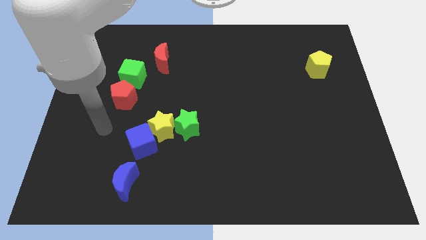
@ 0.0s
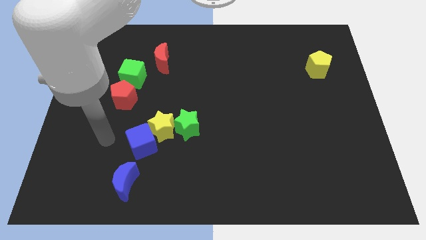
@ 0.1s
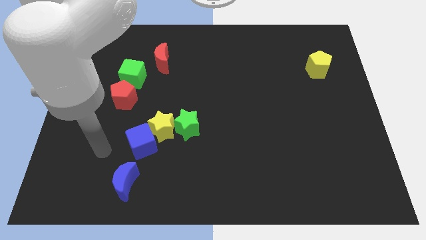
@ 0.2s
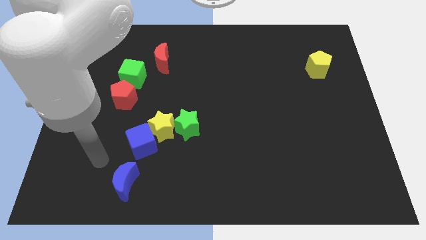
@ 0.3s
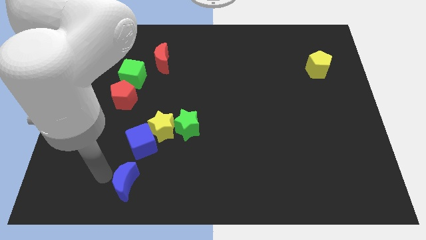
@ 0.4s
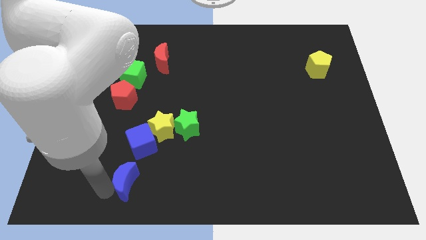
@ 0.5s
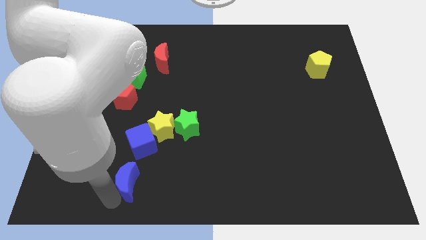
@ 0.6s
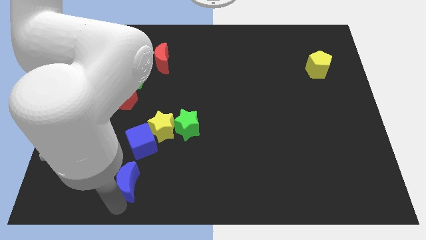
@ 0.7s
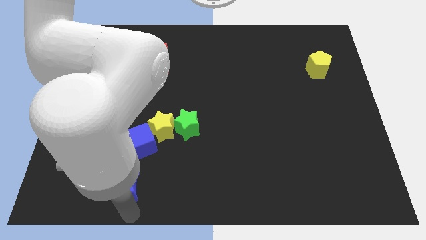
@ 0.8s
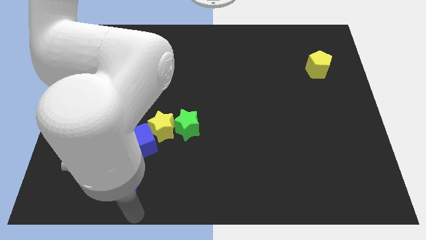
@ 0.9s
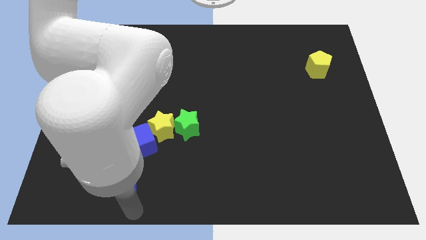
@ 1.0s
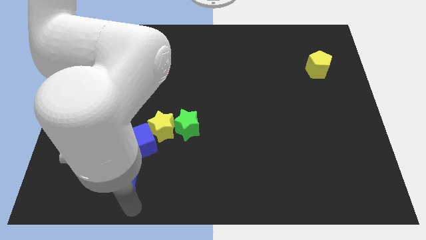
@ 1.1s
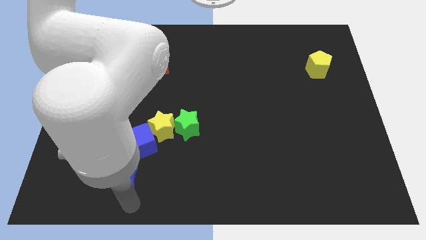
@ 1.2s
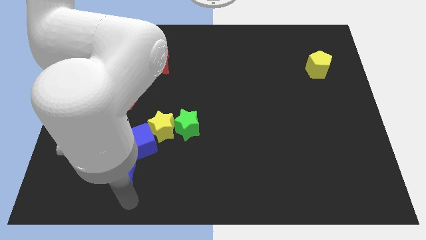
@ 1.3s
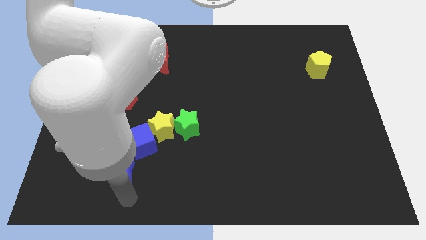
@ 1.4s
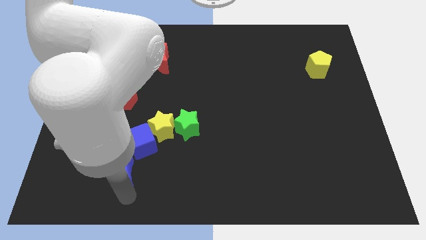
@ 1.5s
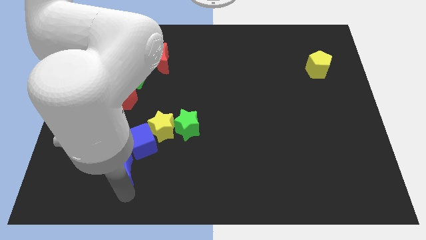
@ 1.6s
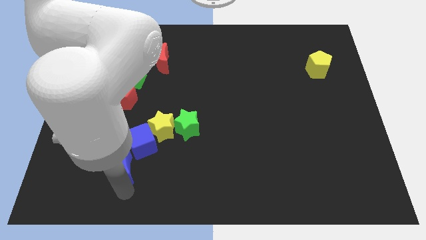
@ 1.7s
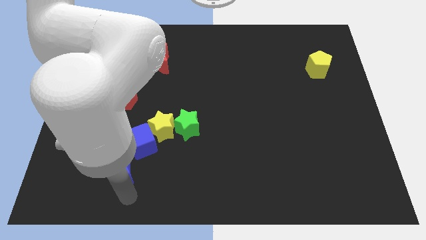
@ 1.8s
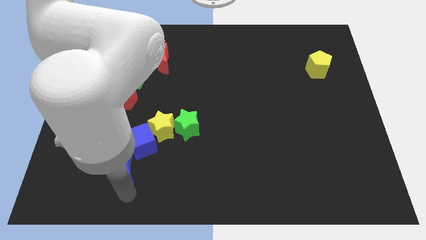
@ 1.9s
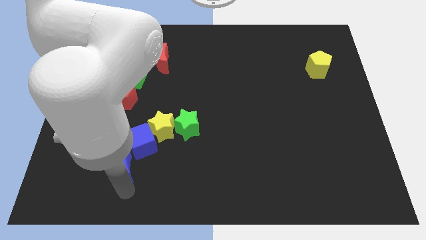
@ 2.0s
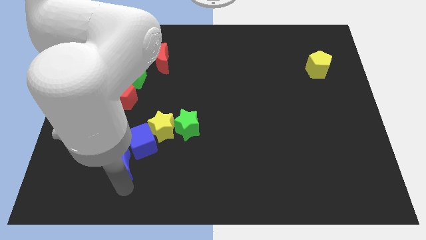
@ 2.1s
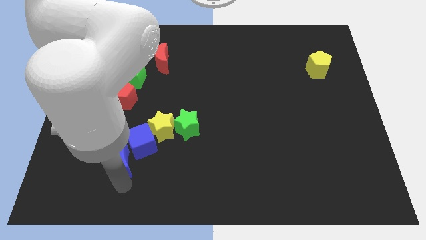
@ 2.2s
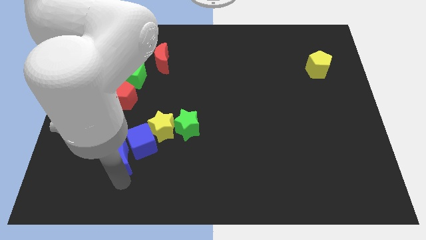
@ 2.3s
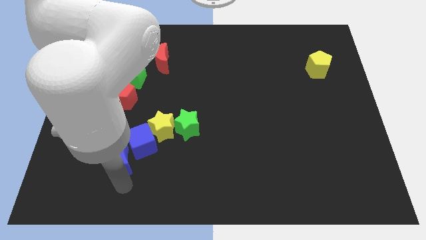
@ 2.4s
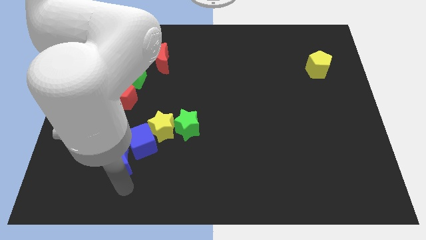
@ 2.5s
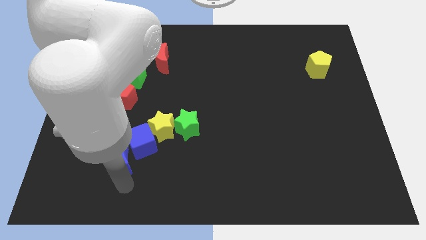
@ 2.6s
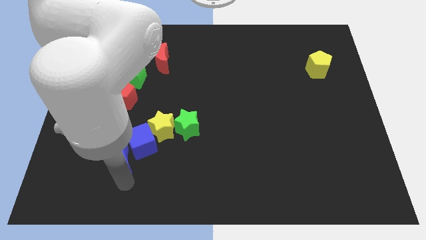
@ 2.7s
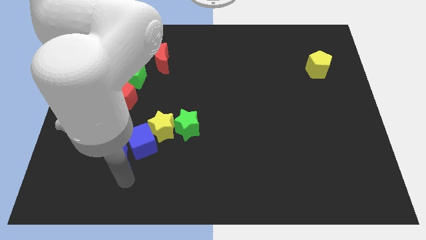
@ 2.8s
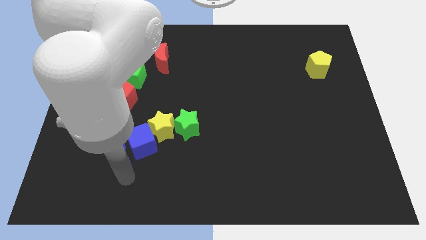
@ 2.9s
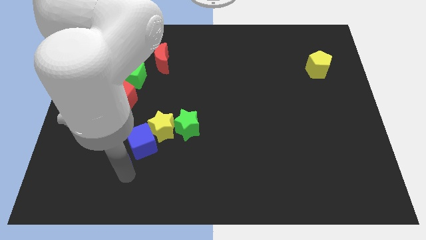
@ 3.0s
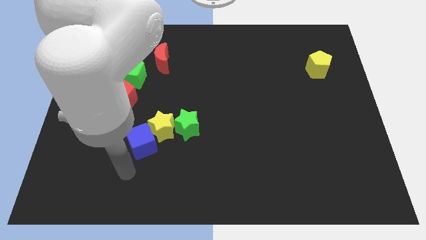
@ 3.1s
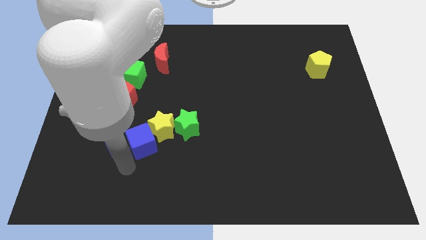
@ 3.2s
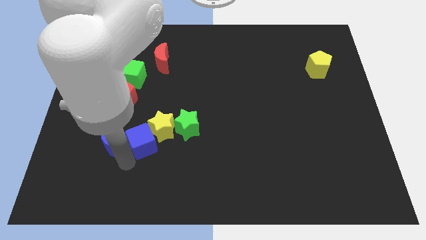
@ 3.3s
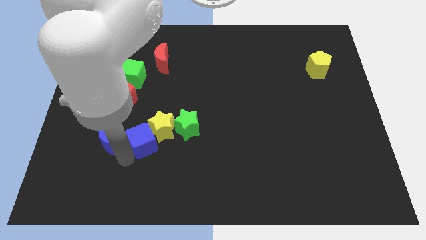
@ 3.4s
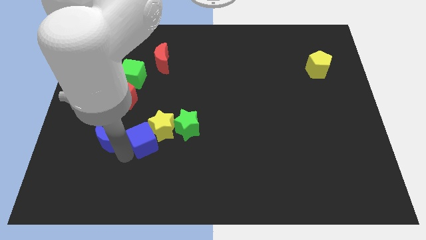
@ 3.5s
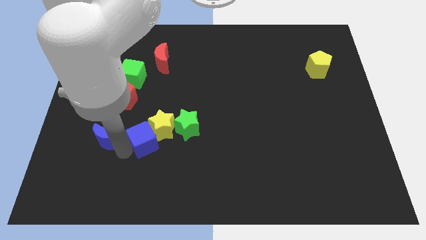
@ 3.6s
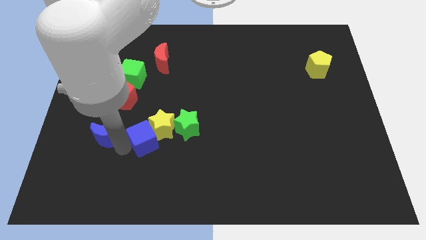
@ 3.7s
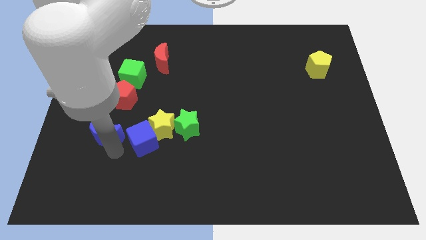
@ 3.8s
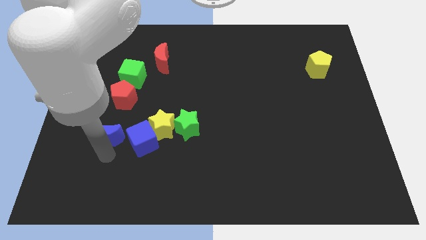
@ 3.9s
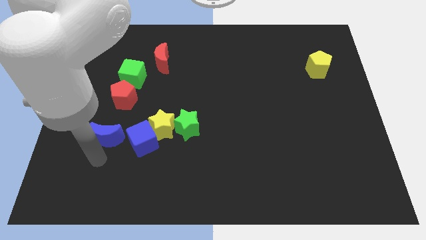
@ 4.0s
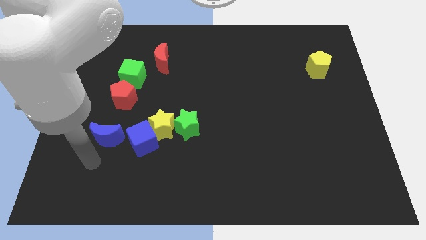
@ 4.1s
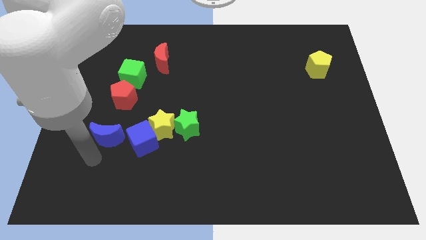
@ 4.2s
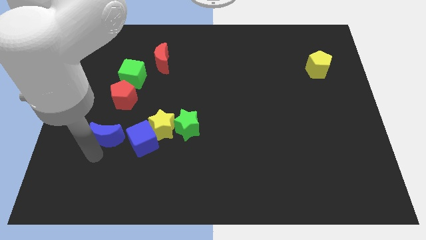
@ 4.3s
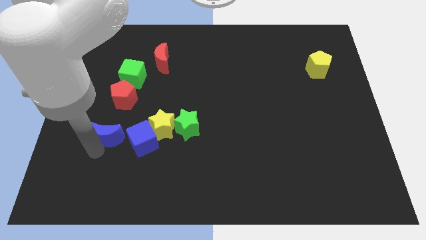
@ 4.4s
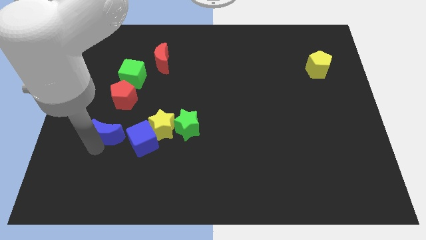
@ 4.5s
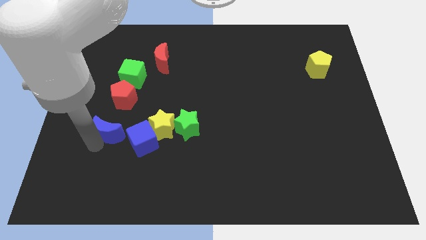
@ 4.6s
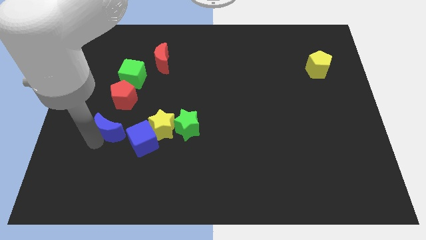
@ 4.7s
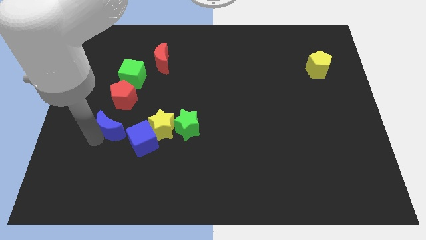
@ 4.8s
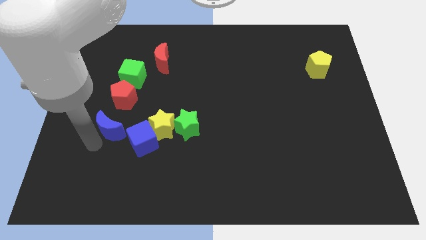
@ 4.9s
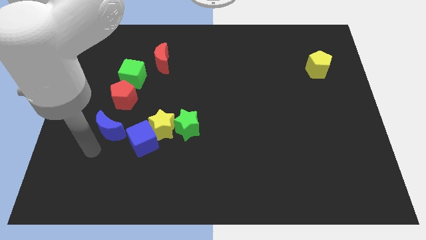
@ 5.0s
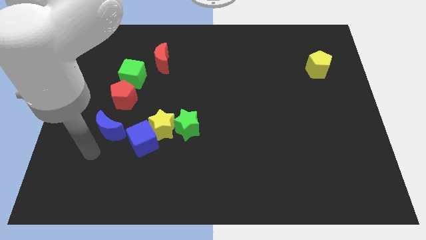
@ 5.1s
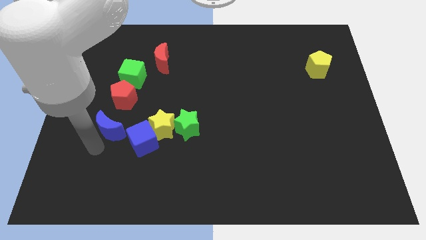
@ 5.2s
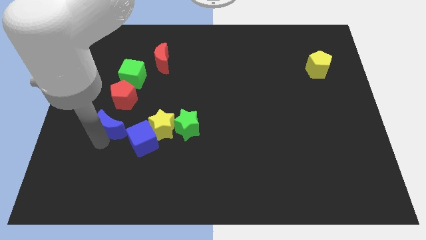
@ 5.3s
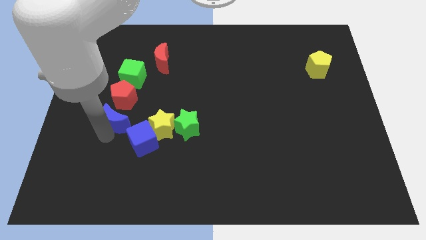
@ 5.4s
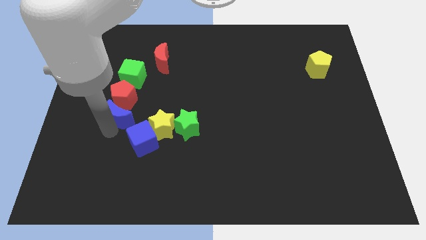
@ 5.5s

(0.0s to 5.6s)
move the blue moon next to the red pentagon

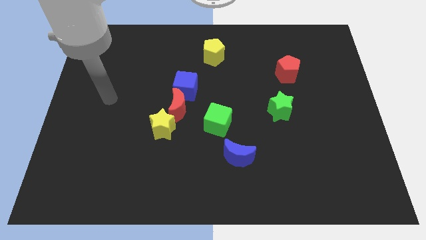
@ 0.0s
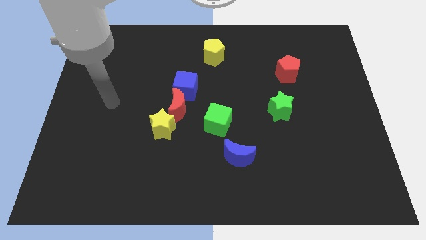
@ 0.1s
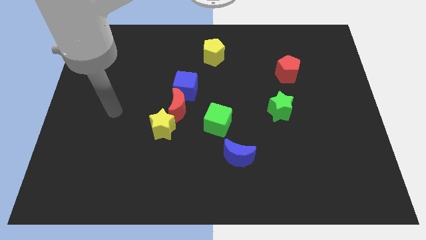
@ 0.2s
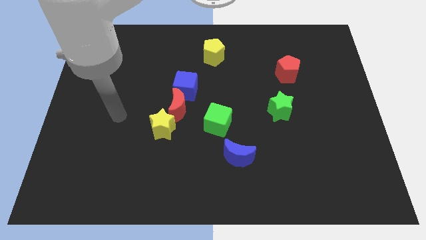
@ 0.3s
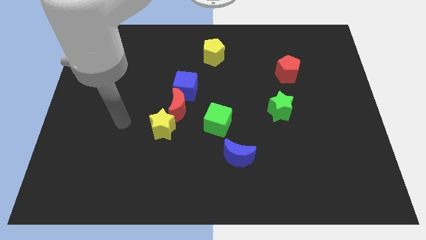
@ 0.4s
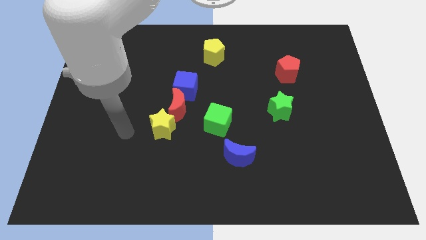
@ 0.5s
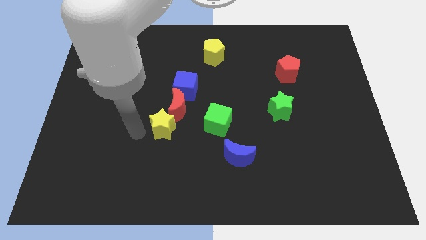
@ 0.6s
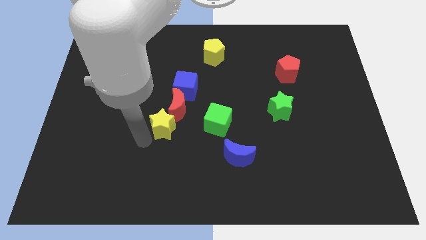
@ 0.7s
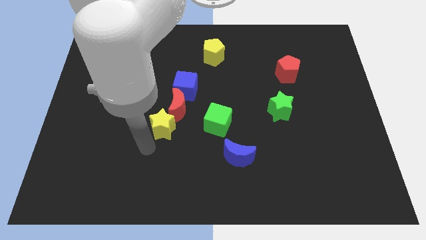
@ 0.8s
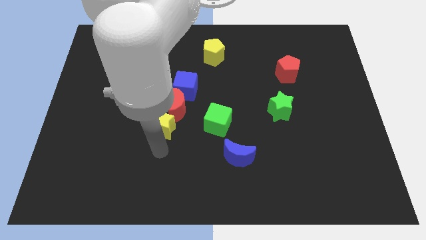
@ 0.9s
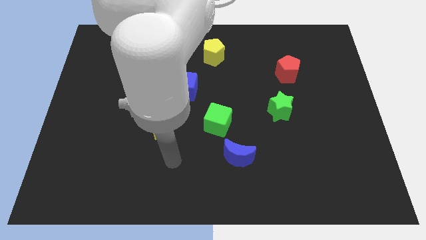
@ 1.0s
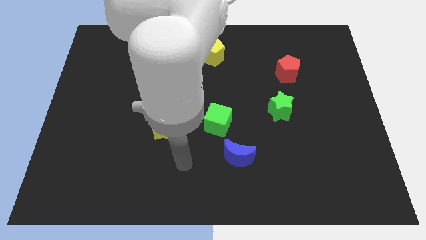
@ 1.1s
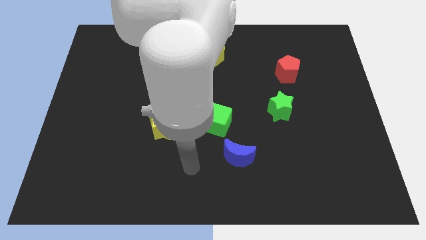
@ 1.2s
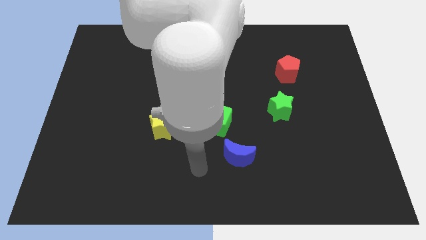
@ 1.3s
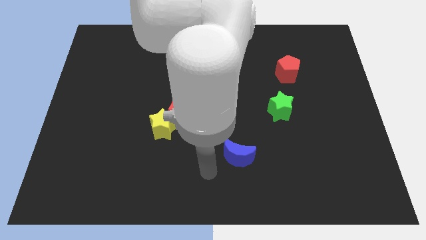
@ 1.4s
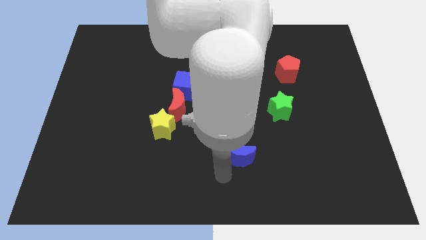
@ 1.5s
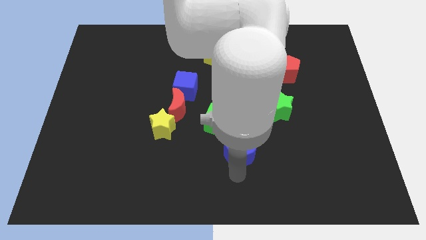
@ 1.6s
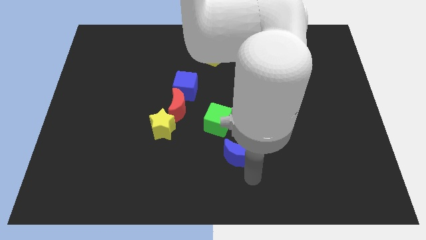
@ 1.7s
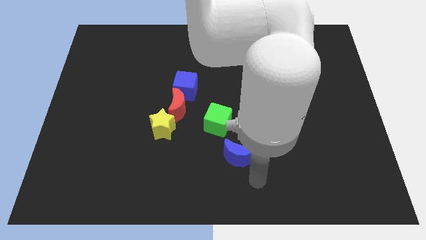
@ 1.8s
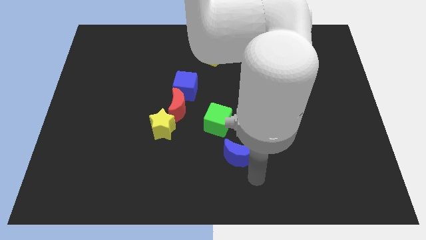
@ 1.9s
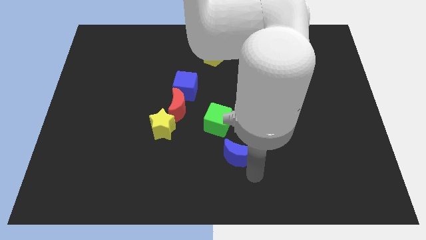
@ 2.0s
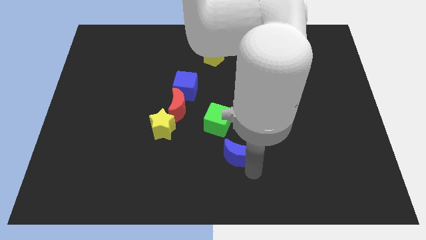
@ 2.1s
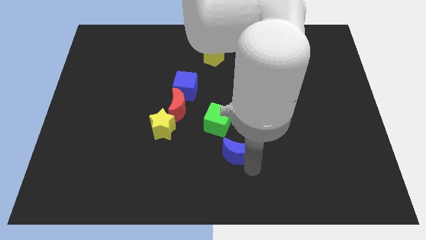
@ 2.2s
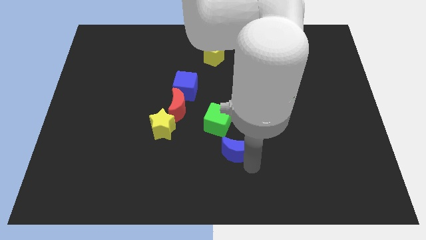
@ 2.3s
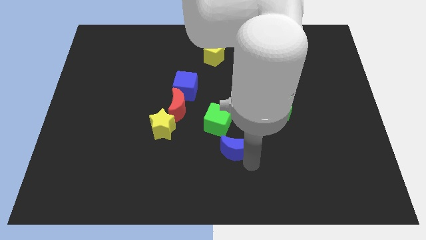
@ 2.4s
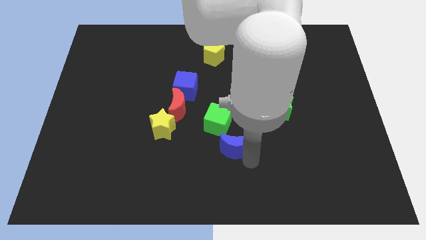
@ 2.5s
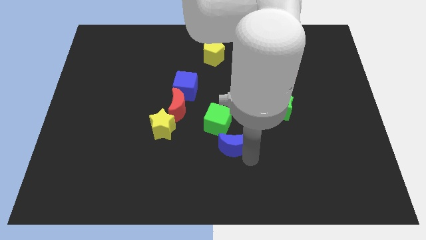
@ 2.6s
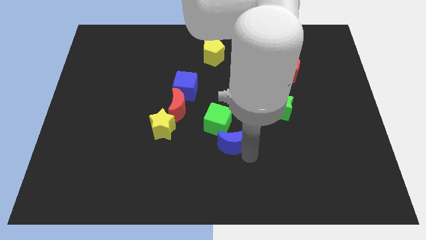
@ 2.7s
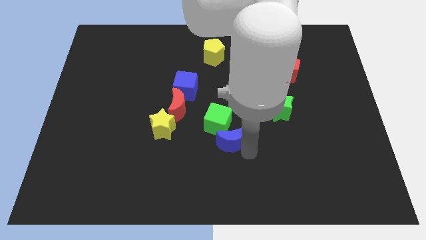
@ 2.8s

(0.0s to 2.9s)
slide the blue moon next to the green cube

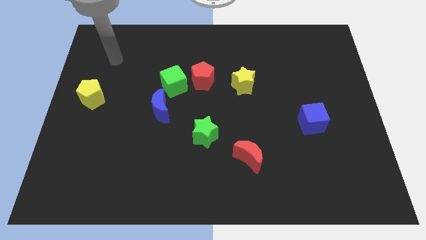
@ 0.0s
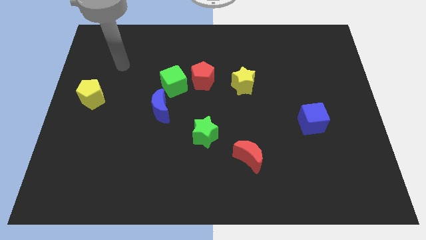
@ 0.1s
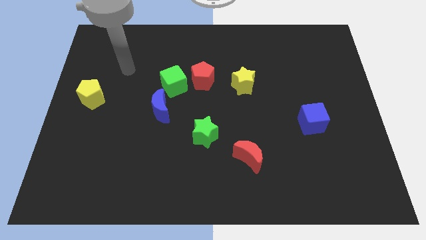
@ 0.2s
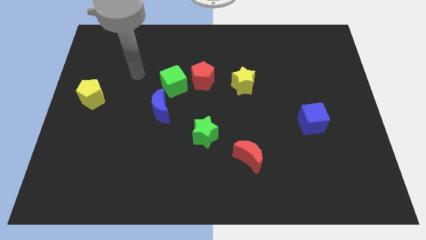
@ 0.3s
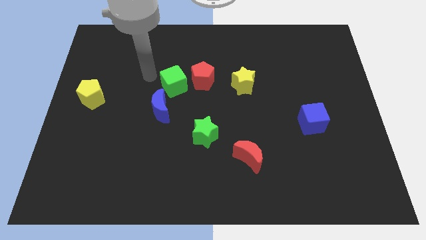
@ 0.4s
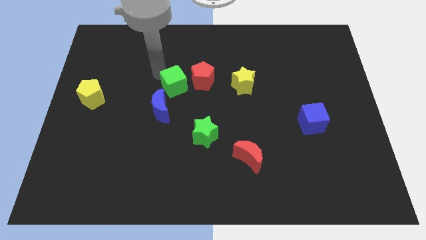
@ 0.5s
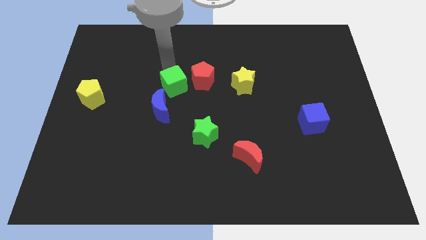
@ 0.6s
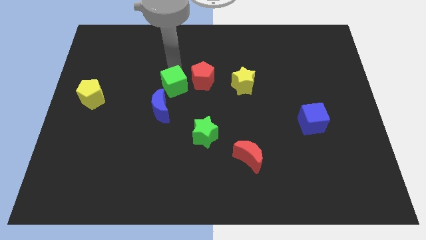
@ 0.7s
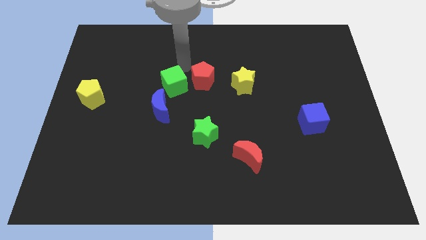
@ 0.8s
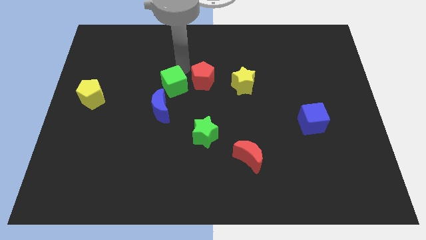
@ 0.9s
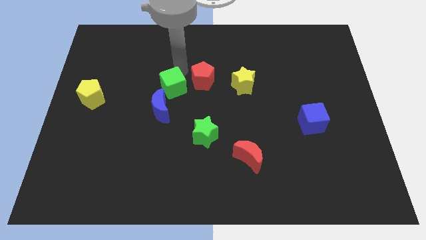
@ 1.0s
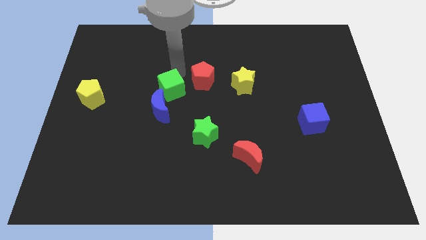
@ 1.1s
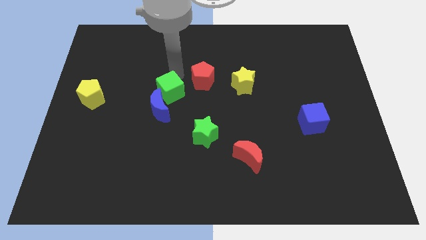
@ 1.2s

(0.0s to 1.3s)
push the green cube close to the blue moon
